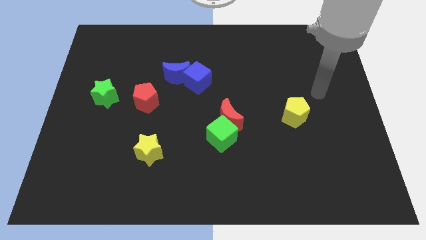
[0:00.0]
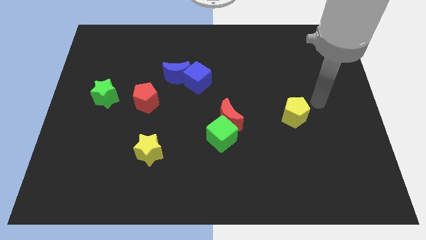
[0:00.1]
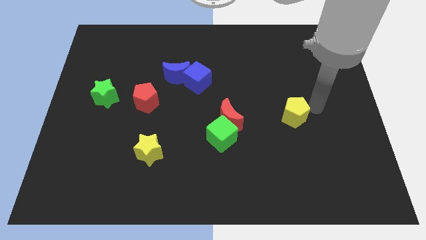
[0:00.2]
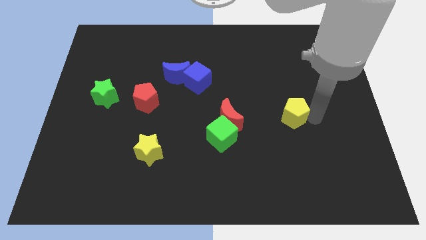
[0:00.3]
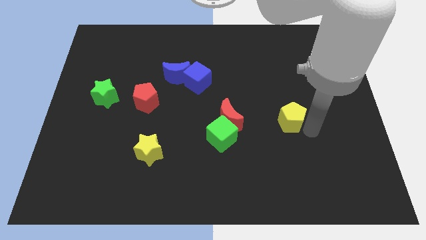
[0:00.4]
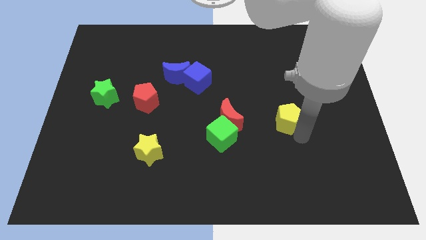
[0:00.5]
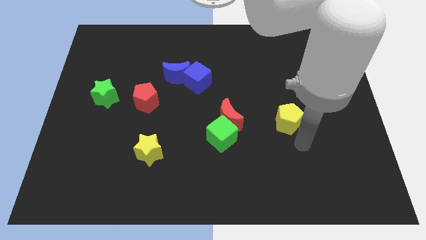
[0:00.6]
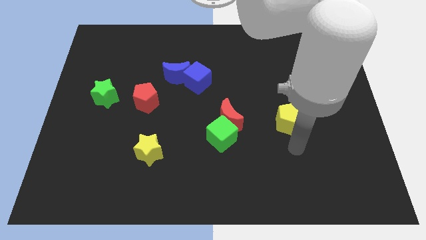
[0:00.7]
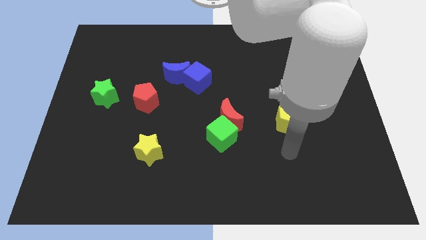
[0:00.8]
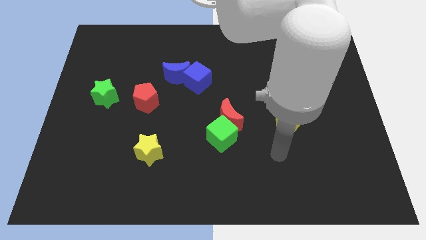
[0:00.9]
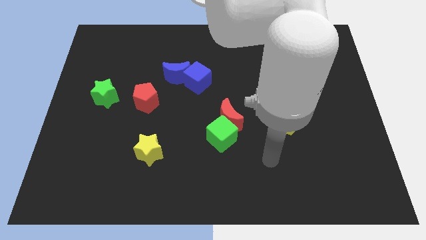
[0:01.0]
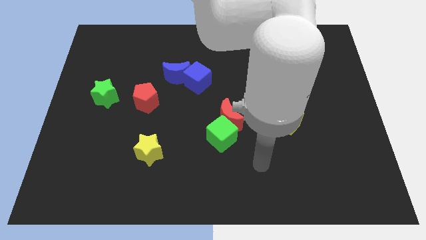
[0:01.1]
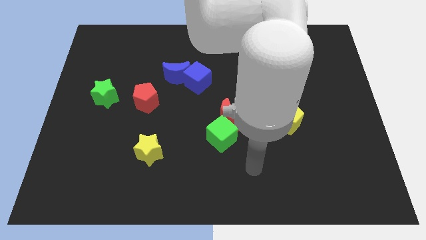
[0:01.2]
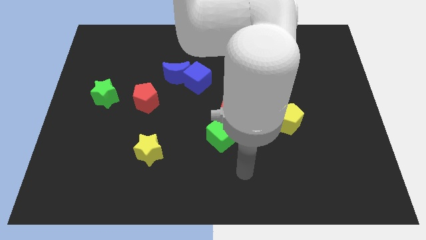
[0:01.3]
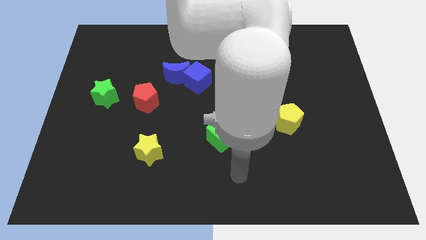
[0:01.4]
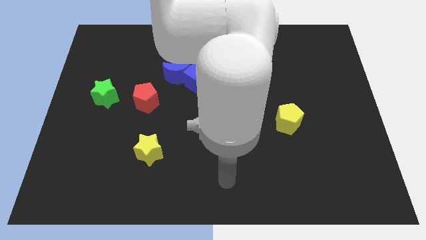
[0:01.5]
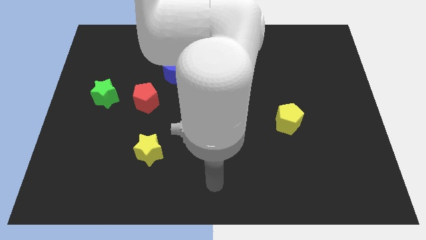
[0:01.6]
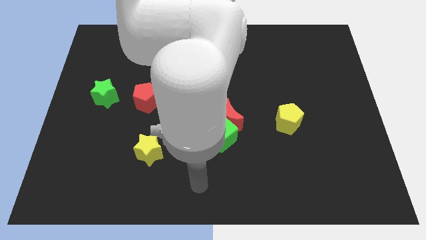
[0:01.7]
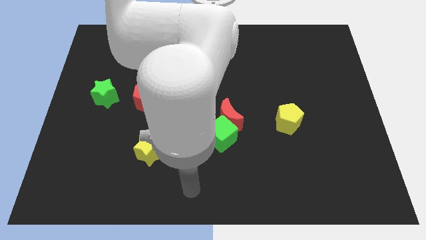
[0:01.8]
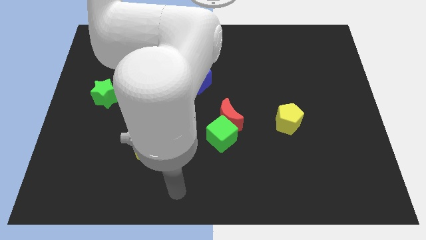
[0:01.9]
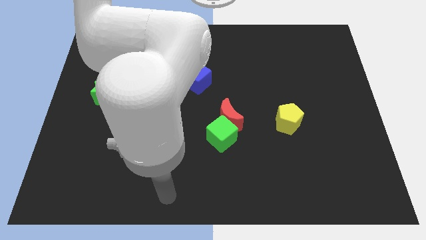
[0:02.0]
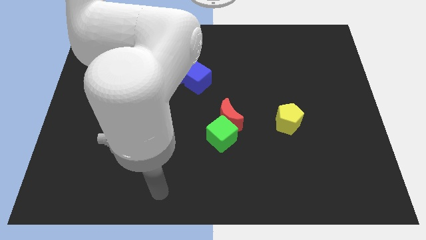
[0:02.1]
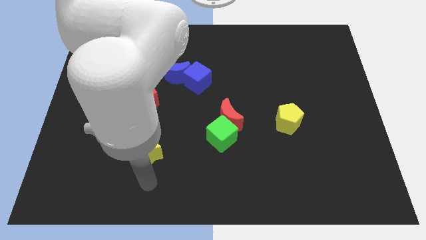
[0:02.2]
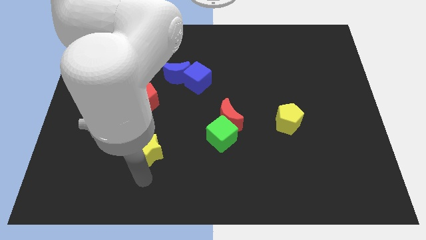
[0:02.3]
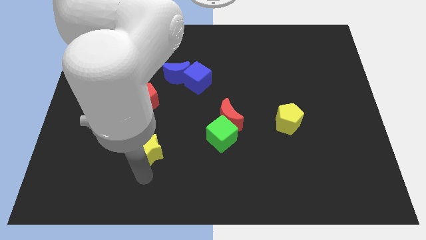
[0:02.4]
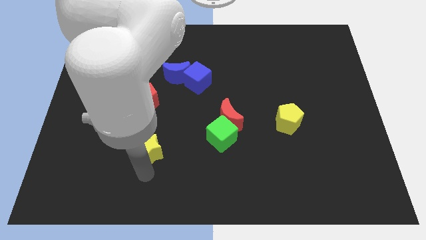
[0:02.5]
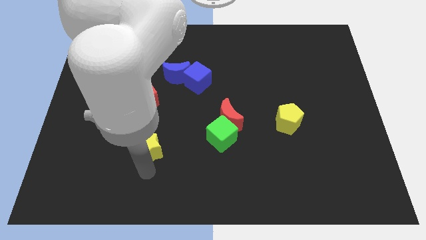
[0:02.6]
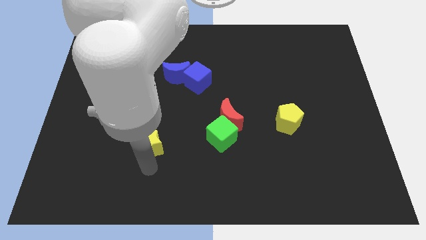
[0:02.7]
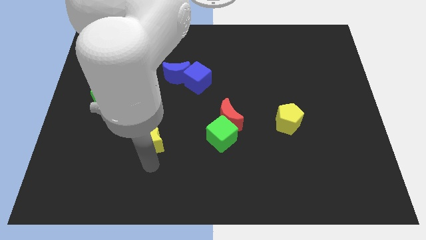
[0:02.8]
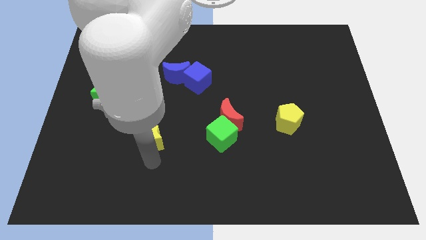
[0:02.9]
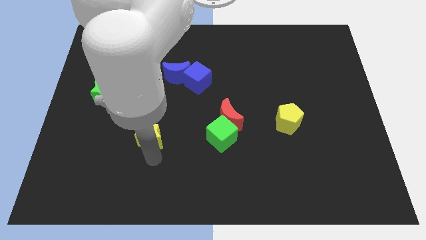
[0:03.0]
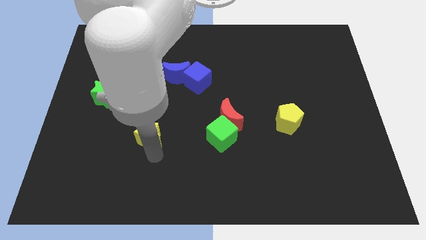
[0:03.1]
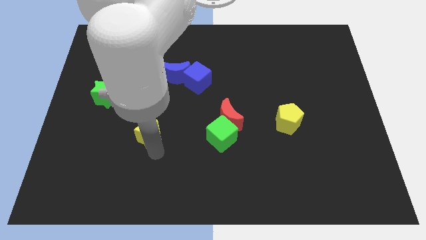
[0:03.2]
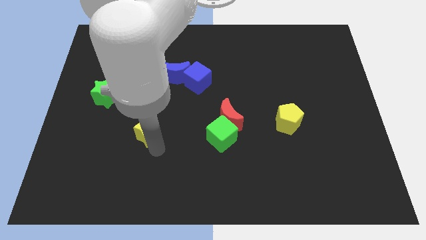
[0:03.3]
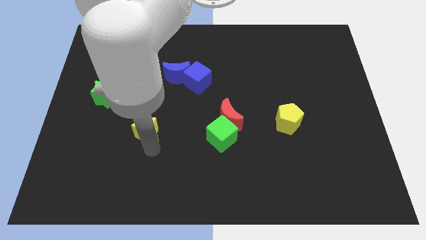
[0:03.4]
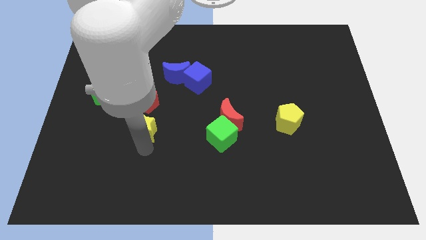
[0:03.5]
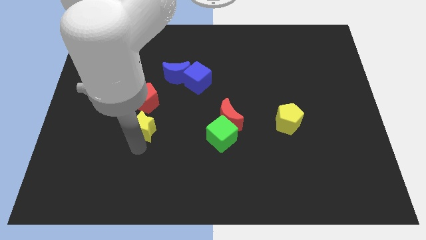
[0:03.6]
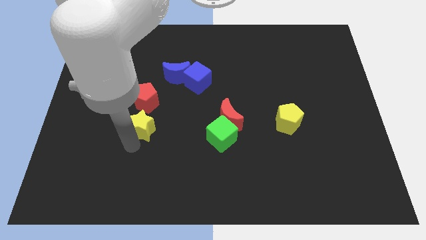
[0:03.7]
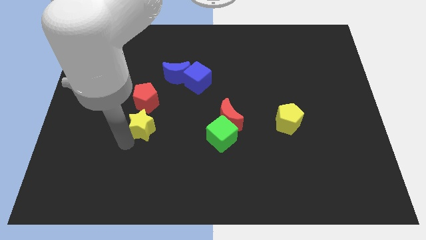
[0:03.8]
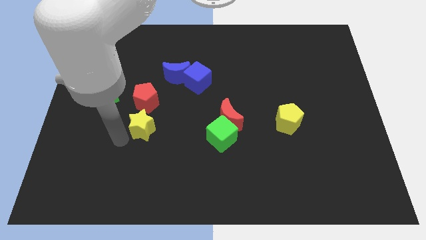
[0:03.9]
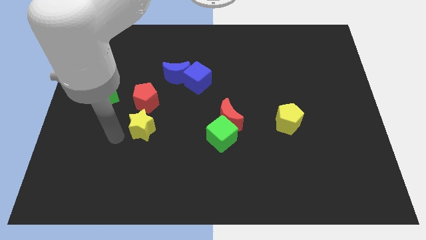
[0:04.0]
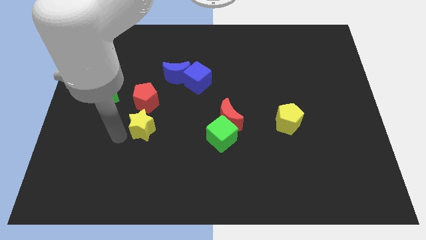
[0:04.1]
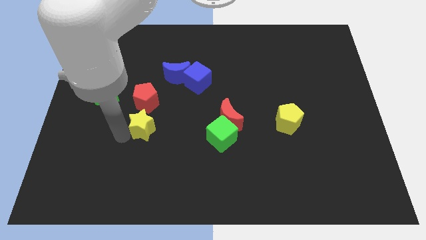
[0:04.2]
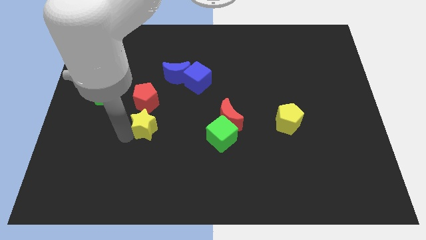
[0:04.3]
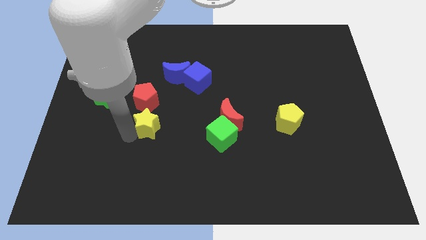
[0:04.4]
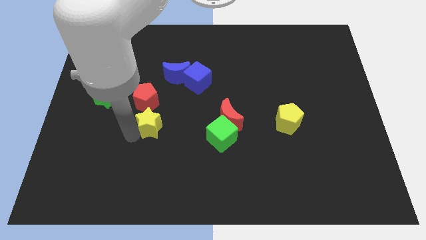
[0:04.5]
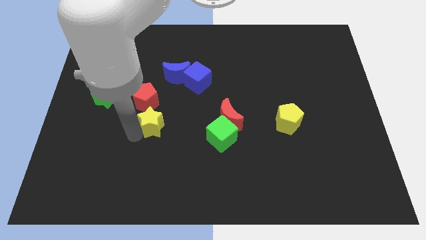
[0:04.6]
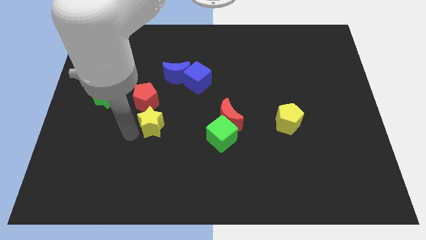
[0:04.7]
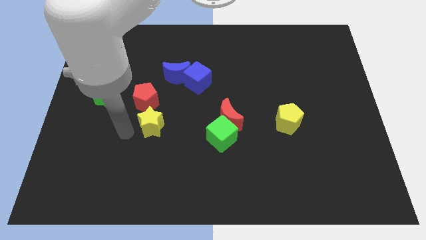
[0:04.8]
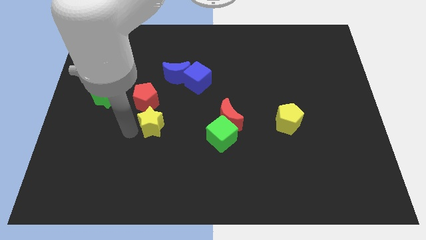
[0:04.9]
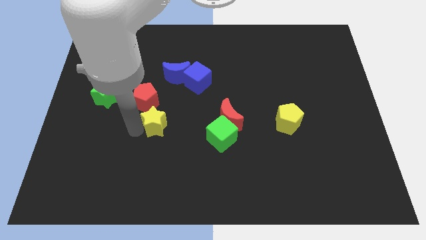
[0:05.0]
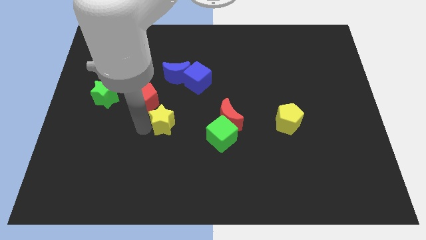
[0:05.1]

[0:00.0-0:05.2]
put the yellow star to the left of the red moon
